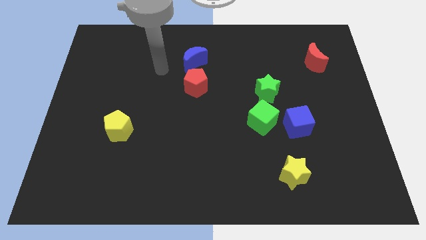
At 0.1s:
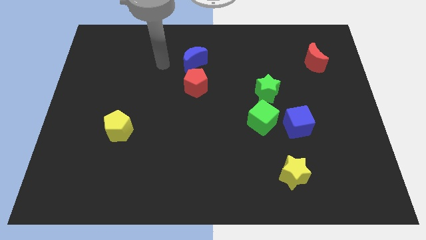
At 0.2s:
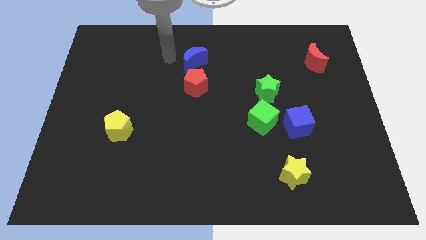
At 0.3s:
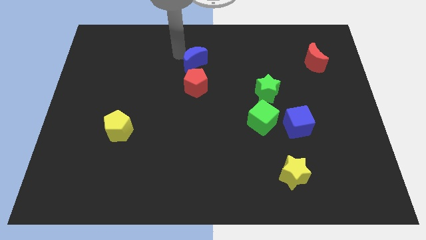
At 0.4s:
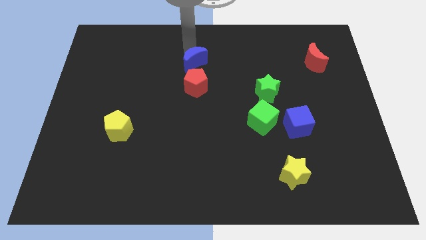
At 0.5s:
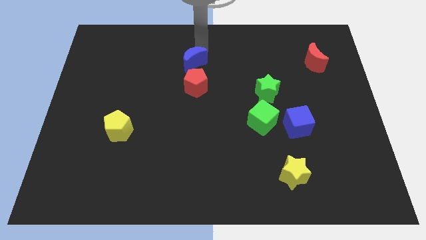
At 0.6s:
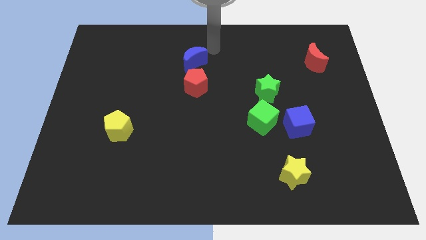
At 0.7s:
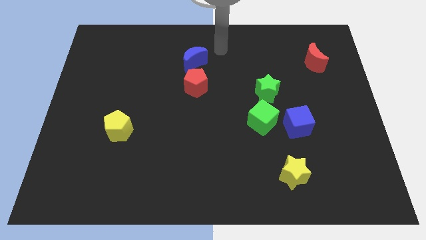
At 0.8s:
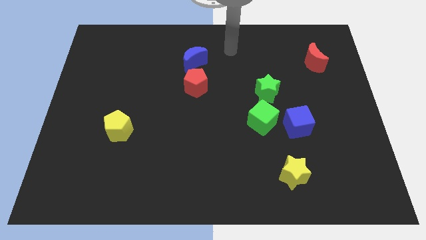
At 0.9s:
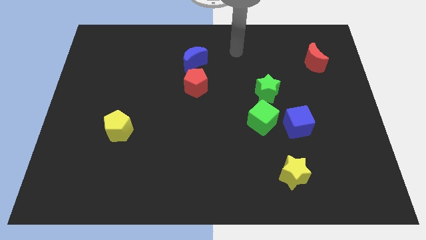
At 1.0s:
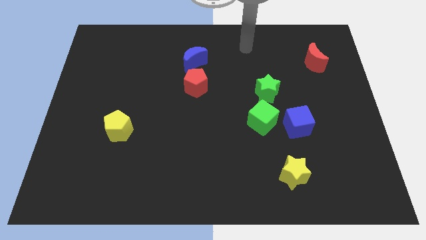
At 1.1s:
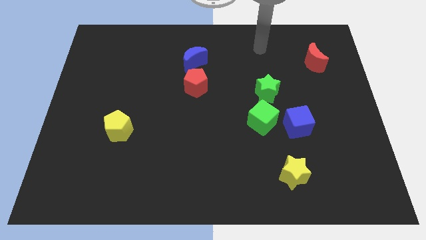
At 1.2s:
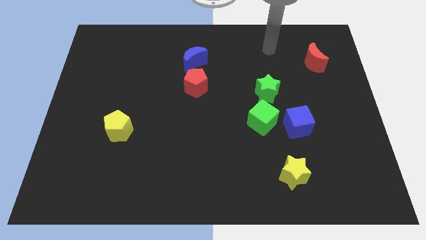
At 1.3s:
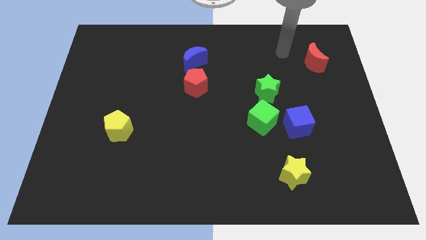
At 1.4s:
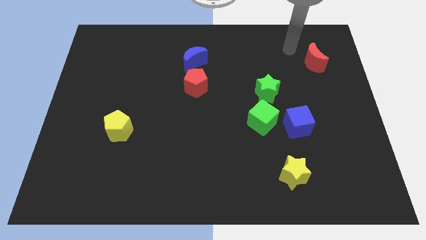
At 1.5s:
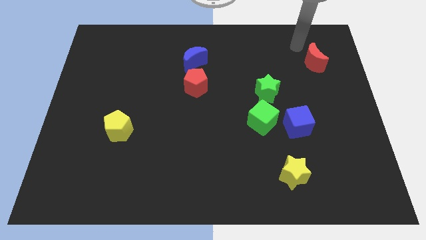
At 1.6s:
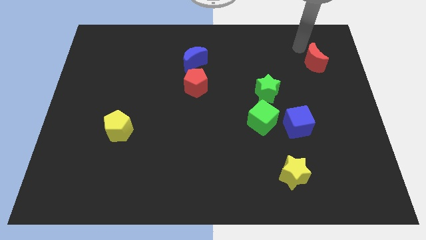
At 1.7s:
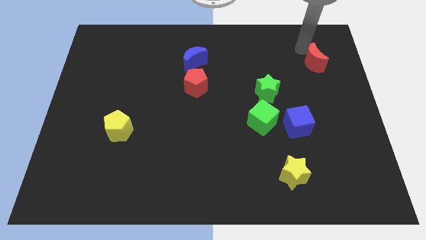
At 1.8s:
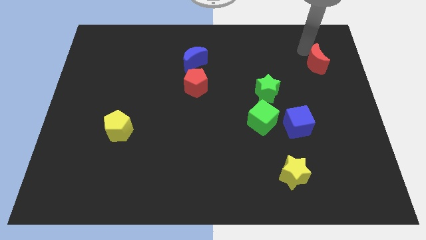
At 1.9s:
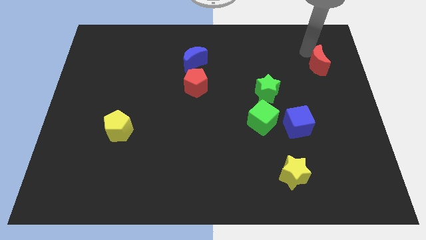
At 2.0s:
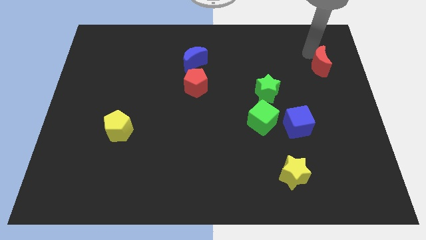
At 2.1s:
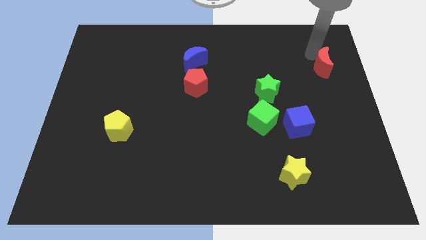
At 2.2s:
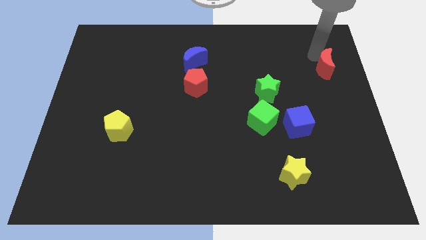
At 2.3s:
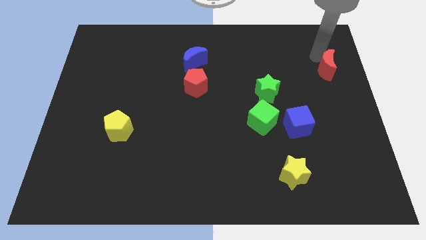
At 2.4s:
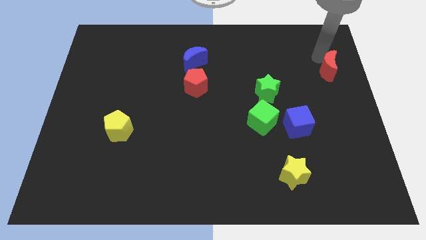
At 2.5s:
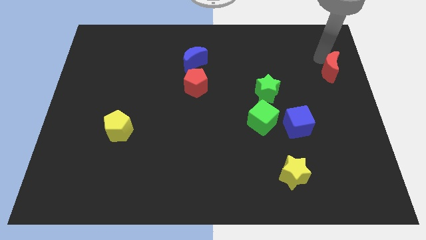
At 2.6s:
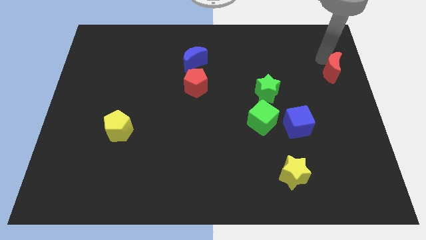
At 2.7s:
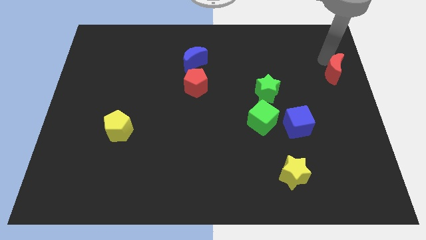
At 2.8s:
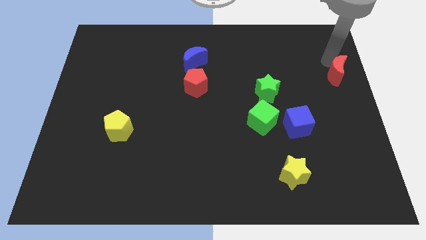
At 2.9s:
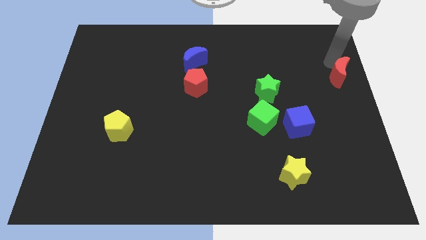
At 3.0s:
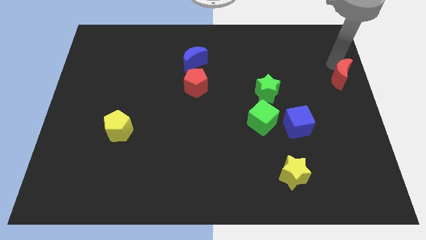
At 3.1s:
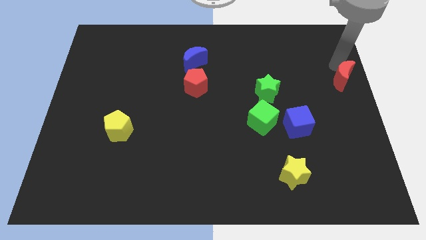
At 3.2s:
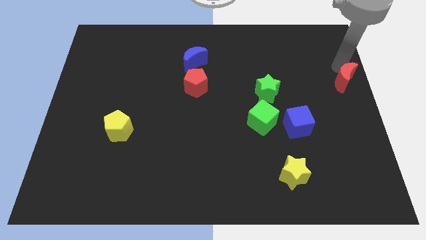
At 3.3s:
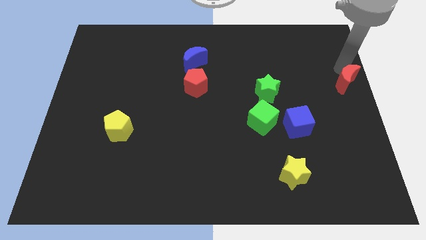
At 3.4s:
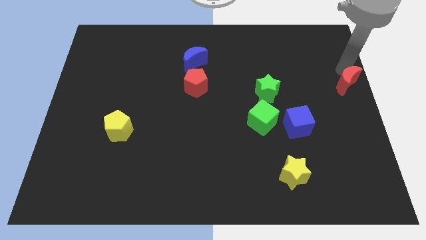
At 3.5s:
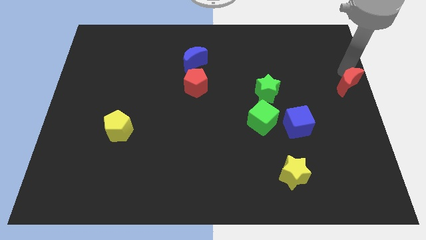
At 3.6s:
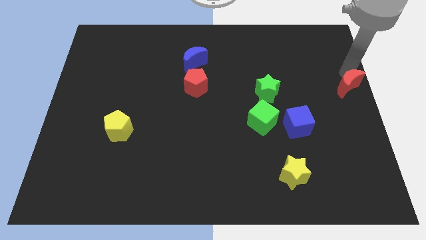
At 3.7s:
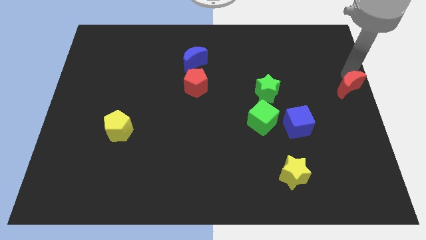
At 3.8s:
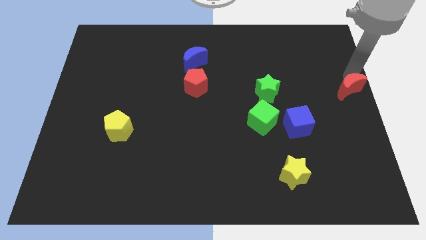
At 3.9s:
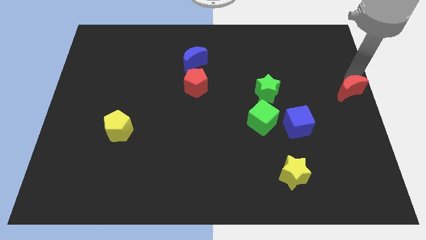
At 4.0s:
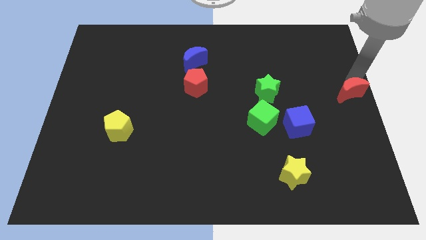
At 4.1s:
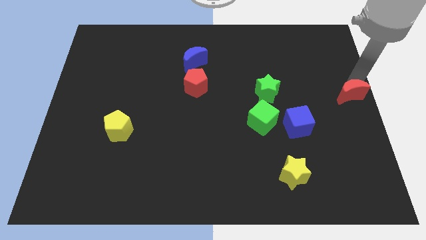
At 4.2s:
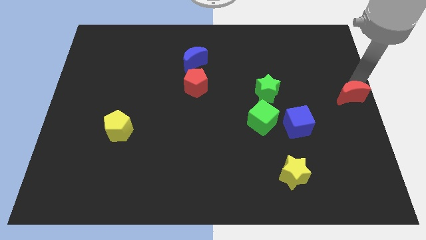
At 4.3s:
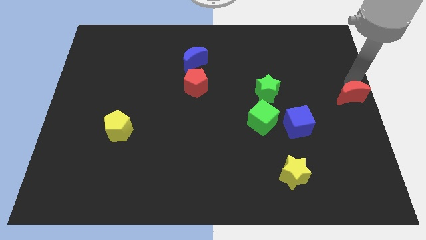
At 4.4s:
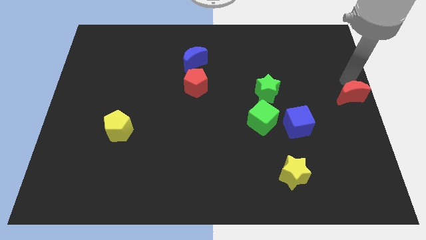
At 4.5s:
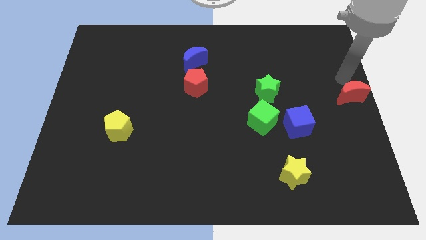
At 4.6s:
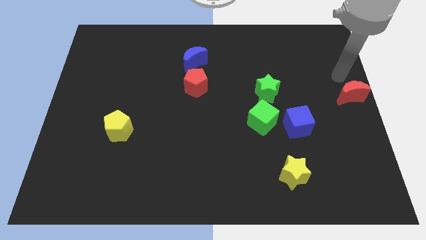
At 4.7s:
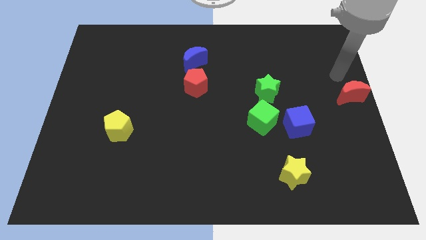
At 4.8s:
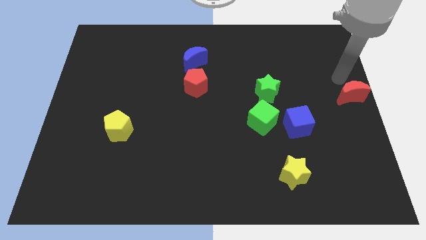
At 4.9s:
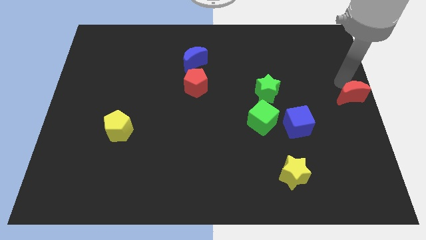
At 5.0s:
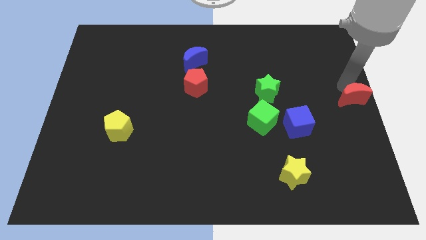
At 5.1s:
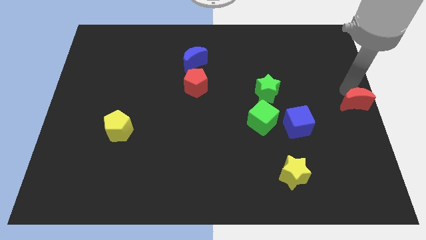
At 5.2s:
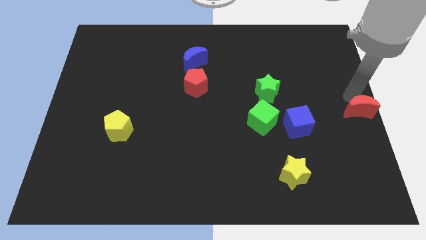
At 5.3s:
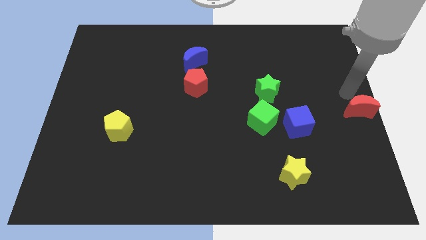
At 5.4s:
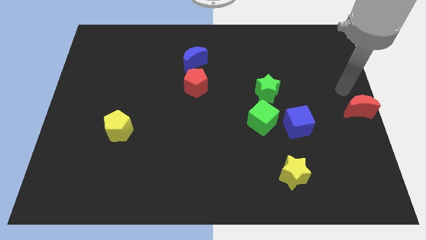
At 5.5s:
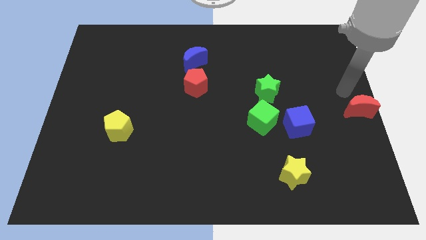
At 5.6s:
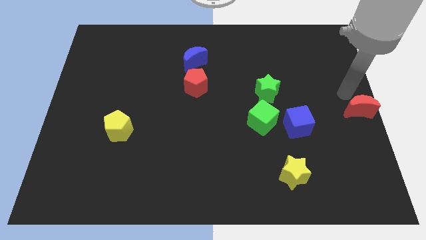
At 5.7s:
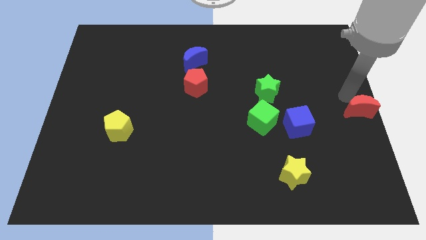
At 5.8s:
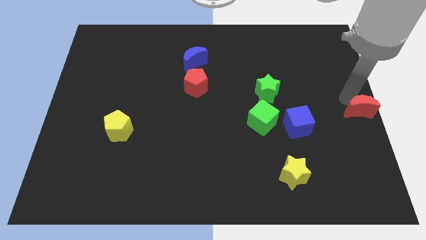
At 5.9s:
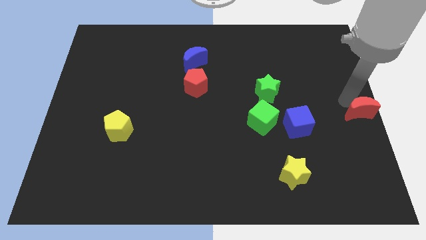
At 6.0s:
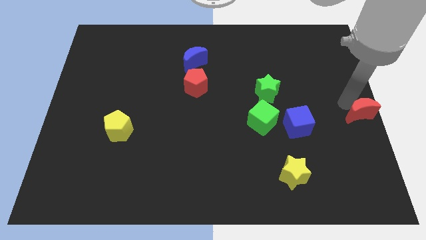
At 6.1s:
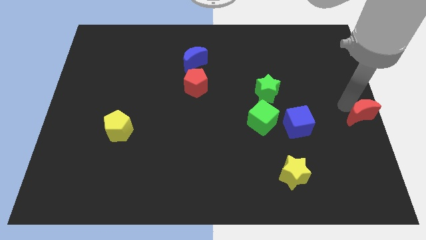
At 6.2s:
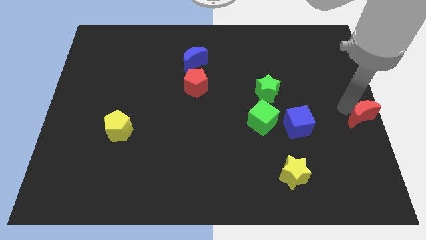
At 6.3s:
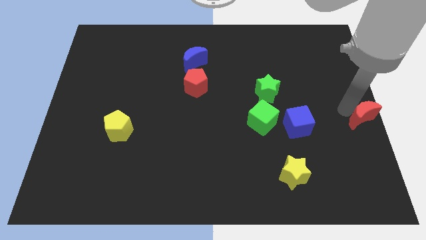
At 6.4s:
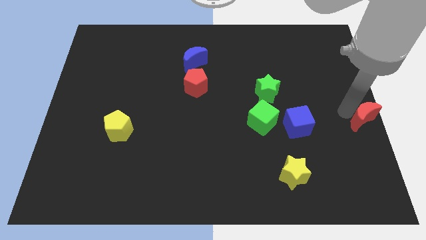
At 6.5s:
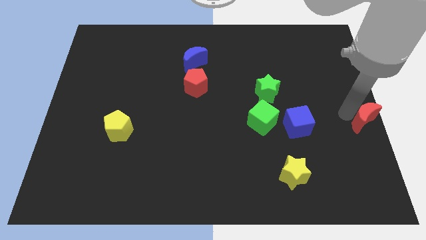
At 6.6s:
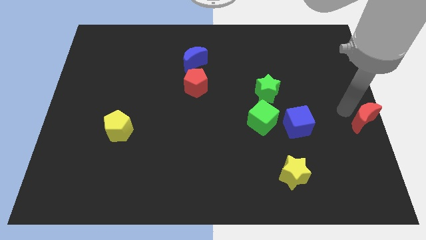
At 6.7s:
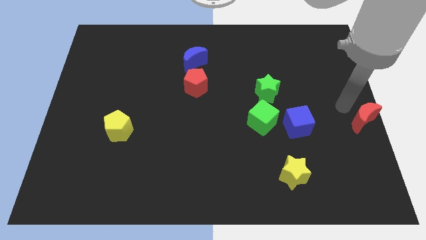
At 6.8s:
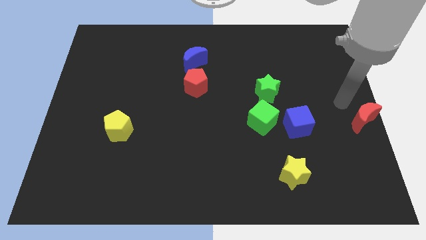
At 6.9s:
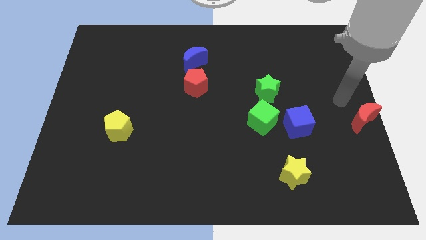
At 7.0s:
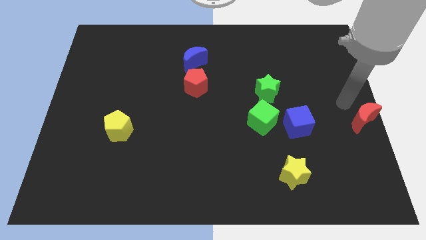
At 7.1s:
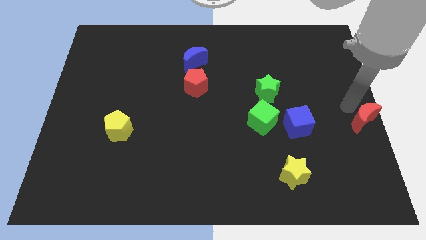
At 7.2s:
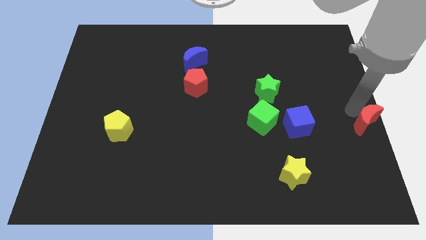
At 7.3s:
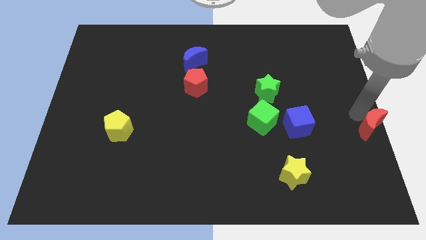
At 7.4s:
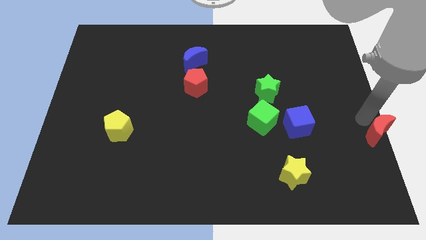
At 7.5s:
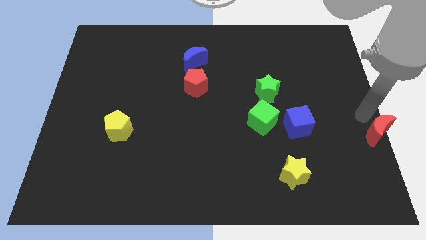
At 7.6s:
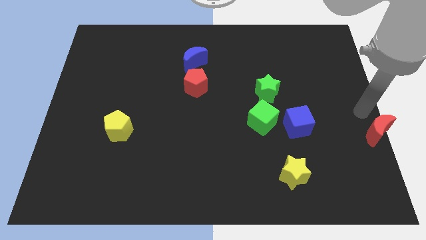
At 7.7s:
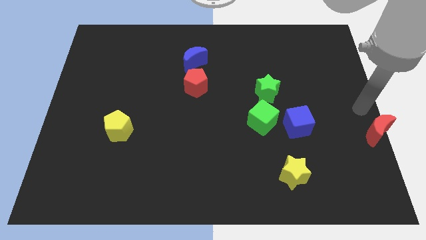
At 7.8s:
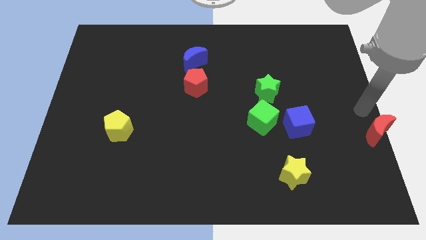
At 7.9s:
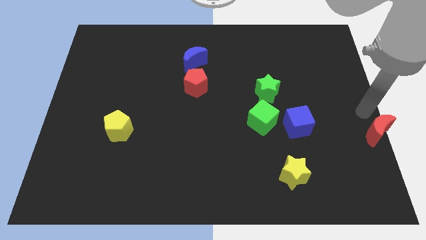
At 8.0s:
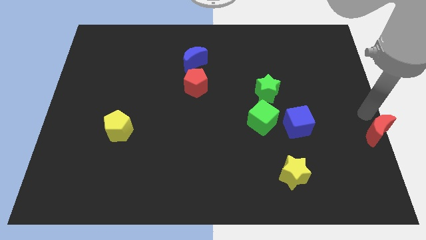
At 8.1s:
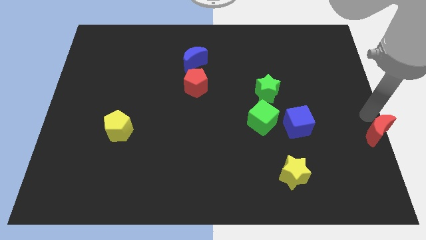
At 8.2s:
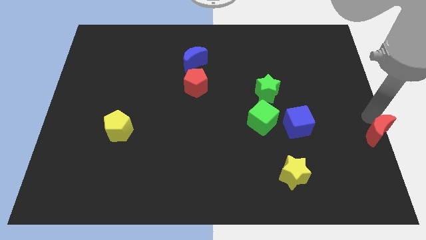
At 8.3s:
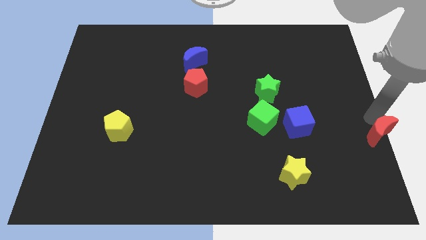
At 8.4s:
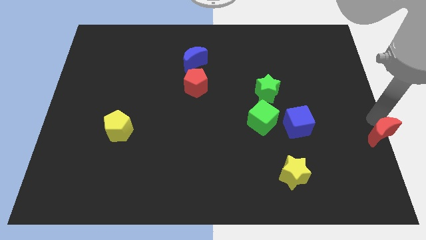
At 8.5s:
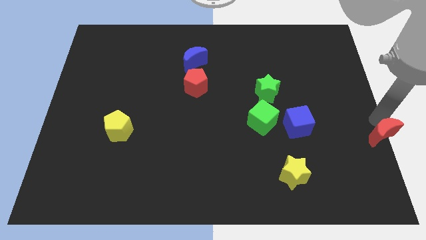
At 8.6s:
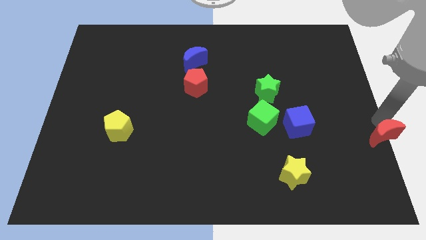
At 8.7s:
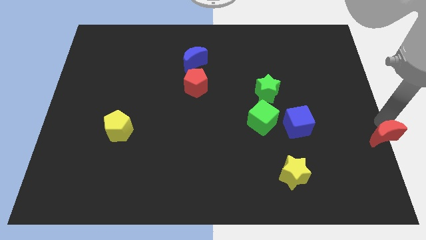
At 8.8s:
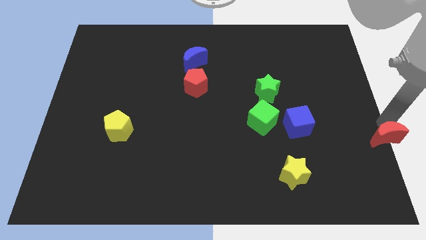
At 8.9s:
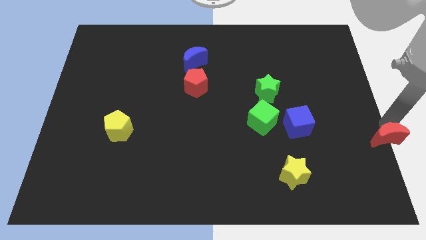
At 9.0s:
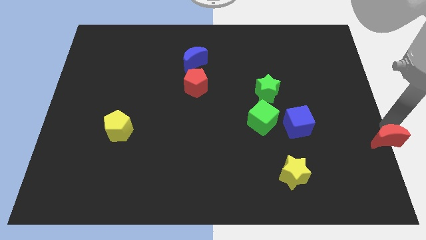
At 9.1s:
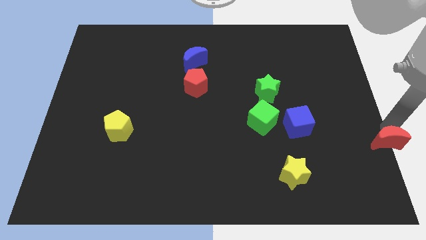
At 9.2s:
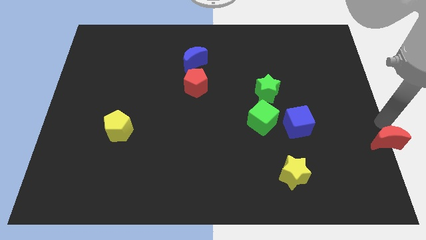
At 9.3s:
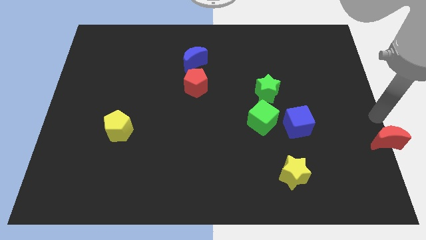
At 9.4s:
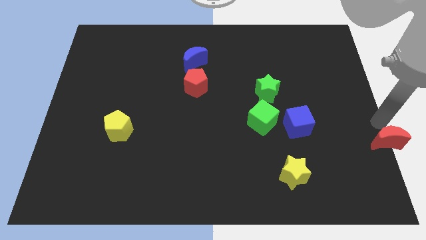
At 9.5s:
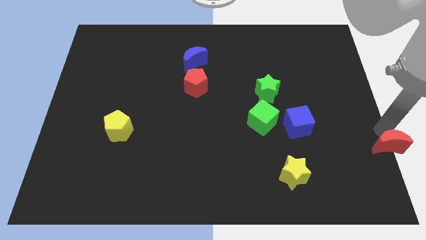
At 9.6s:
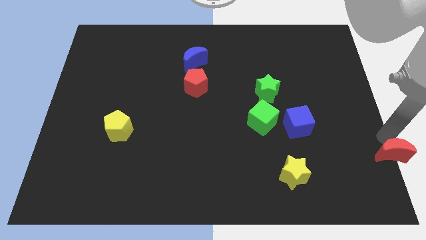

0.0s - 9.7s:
move the red moon to the bottom right
